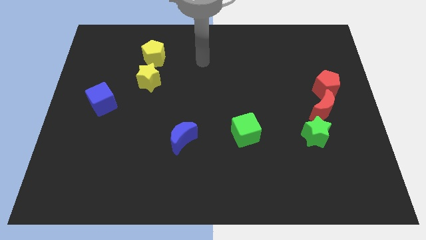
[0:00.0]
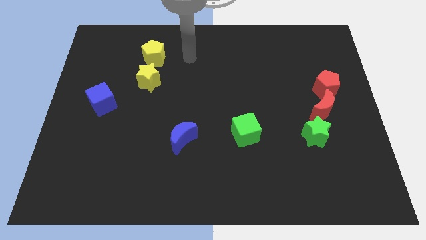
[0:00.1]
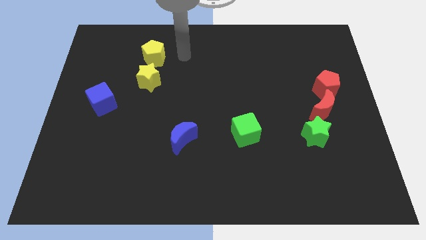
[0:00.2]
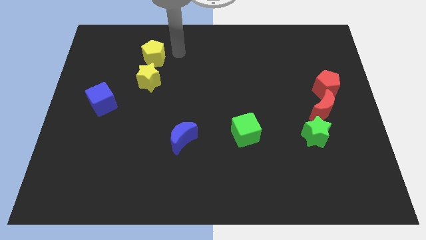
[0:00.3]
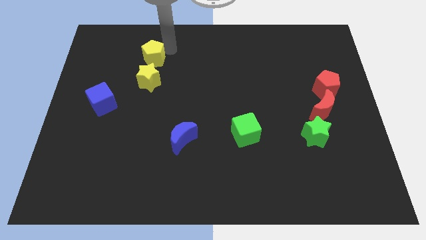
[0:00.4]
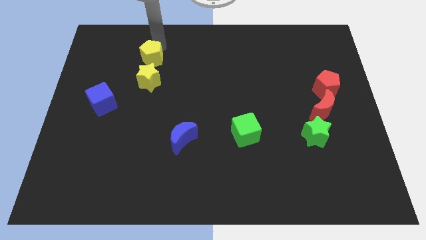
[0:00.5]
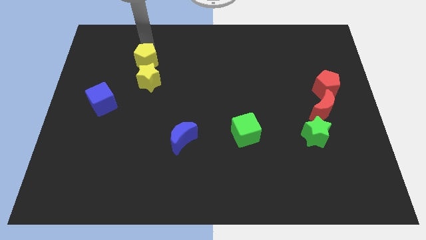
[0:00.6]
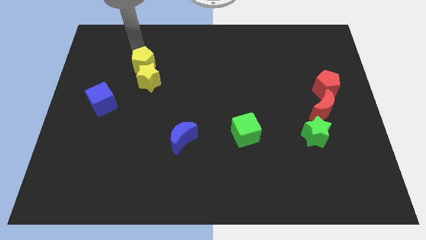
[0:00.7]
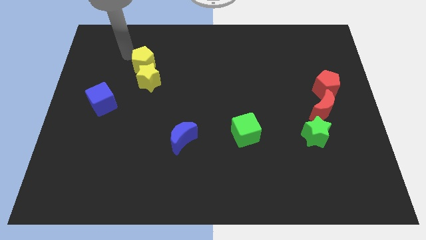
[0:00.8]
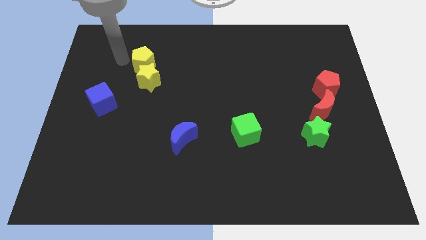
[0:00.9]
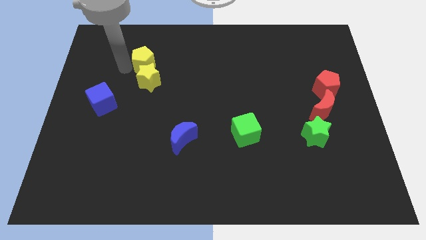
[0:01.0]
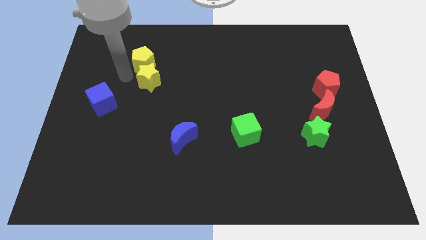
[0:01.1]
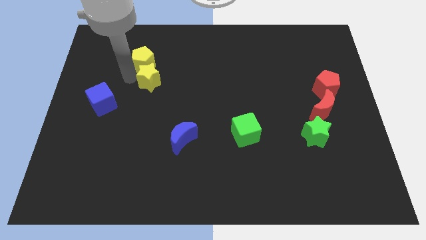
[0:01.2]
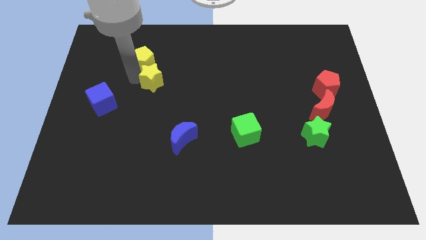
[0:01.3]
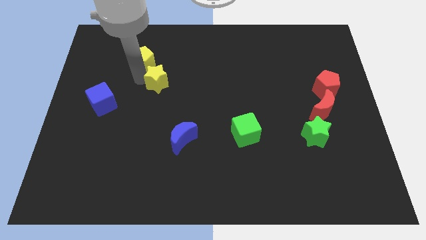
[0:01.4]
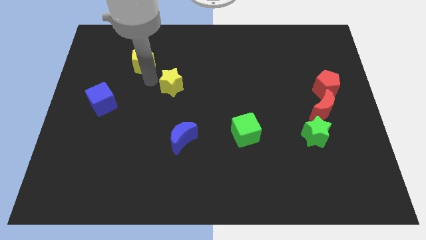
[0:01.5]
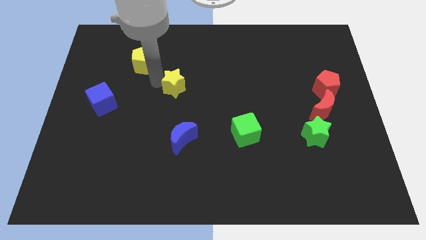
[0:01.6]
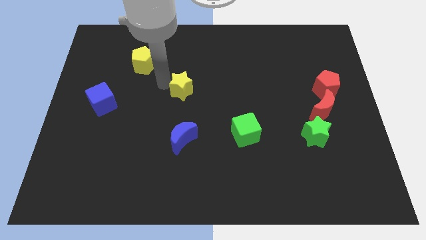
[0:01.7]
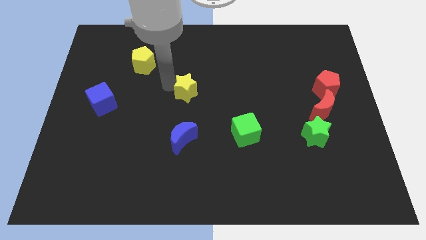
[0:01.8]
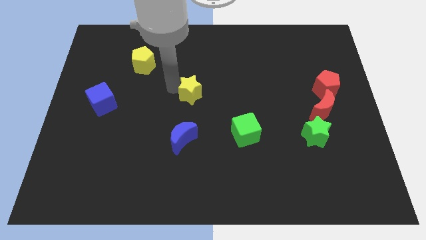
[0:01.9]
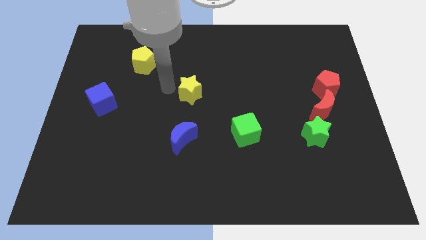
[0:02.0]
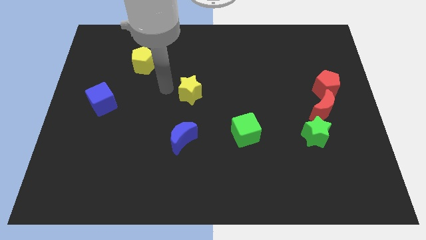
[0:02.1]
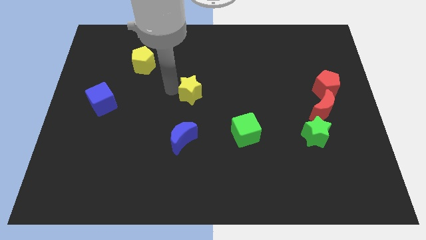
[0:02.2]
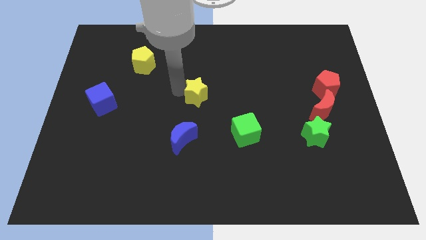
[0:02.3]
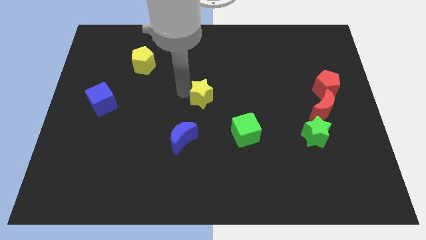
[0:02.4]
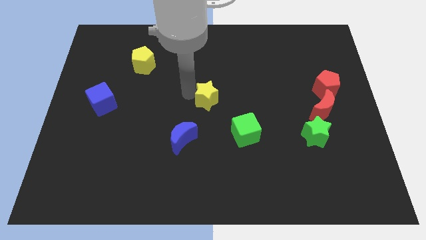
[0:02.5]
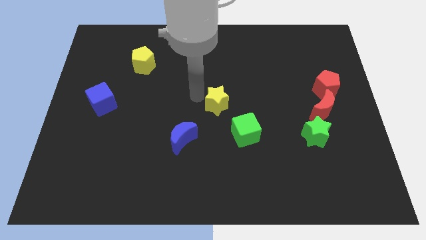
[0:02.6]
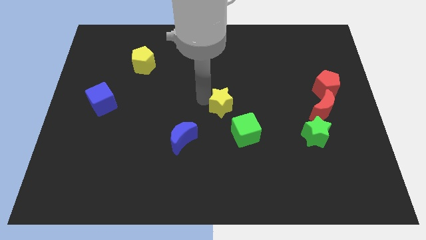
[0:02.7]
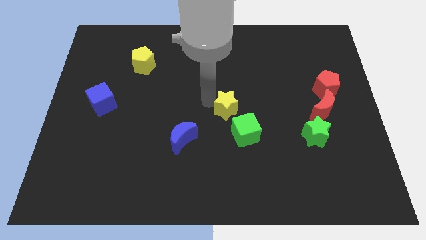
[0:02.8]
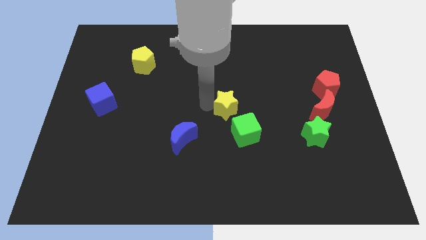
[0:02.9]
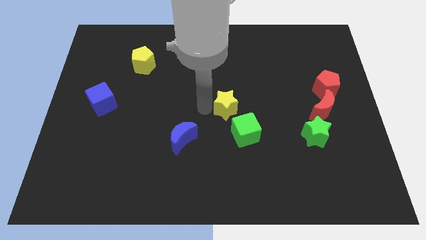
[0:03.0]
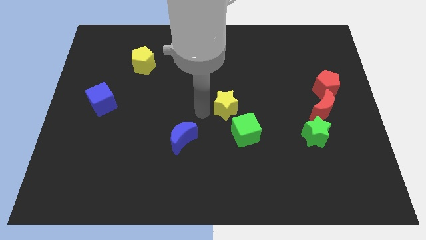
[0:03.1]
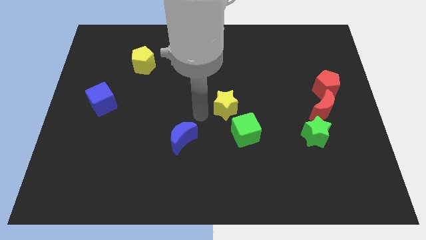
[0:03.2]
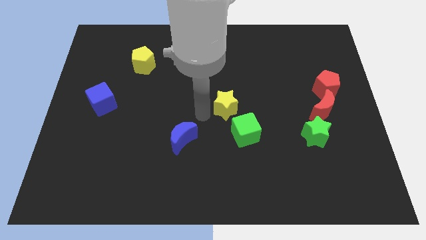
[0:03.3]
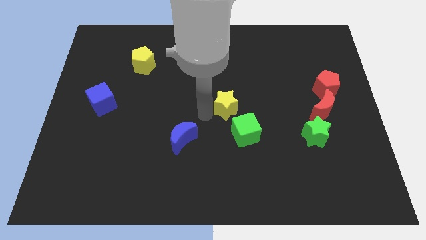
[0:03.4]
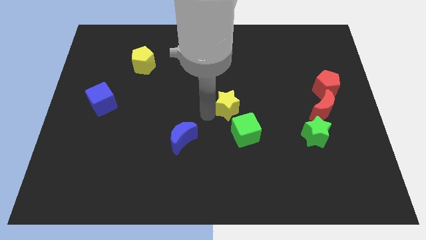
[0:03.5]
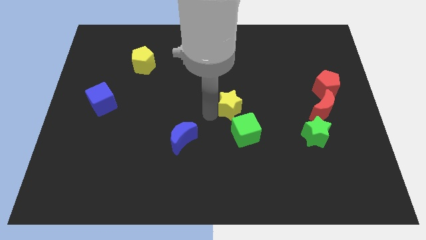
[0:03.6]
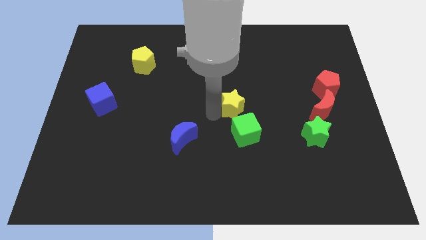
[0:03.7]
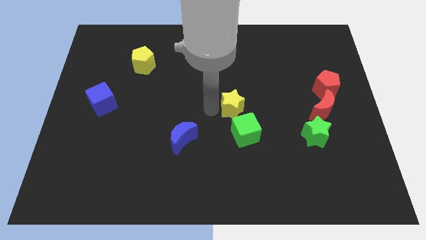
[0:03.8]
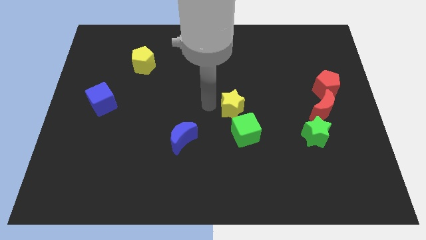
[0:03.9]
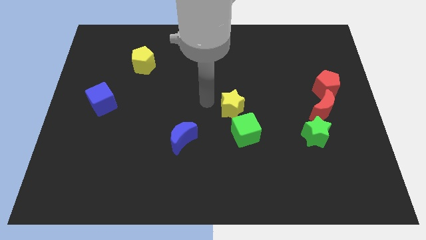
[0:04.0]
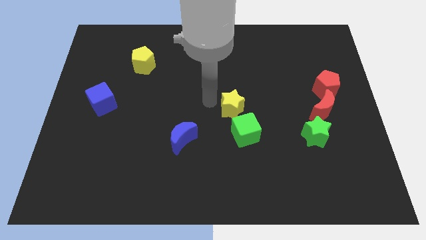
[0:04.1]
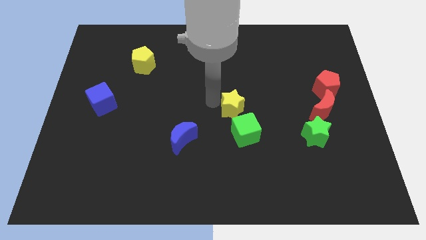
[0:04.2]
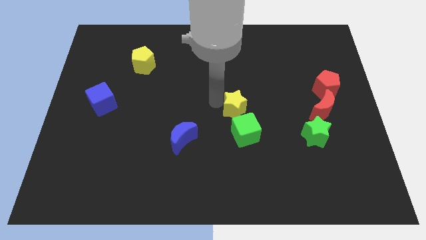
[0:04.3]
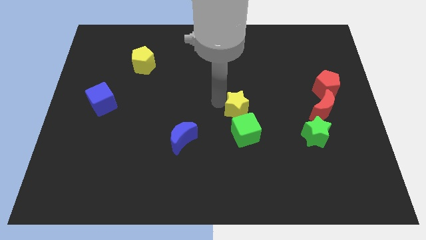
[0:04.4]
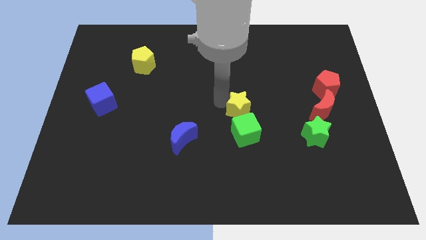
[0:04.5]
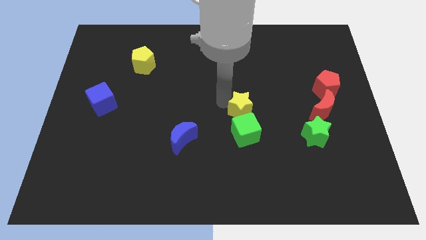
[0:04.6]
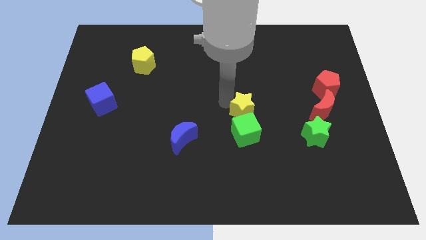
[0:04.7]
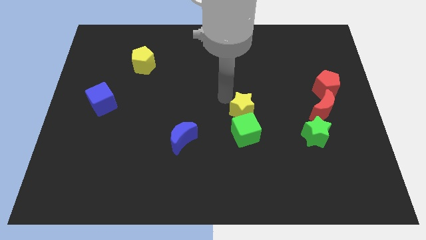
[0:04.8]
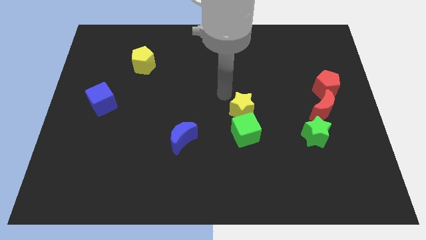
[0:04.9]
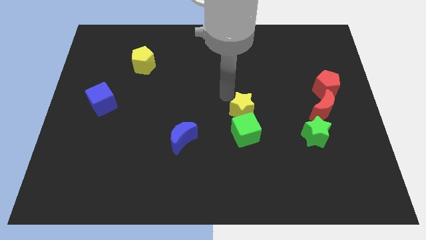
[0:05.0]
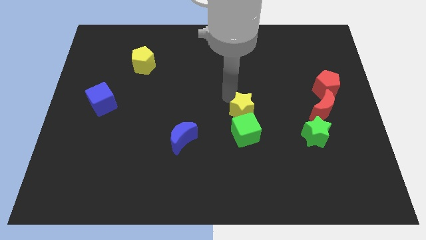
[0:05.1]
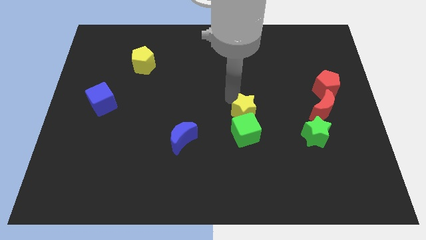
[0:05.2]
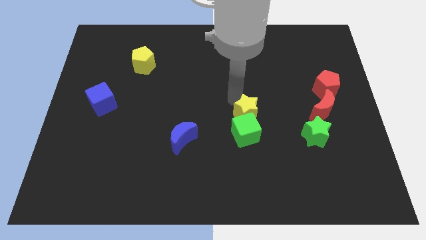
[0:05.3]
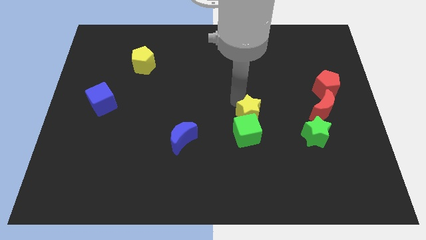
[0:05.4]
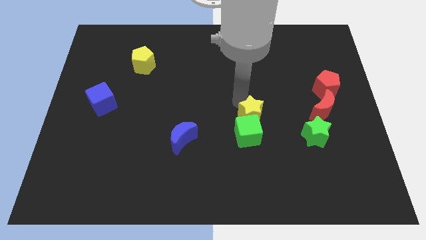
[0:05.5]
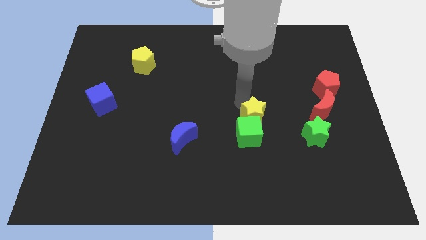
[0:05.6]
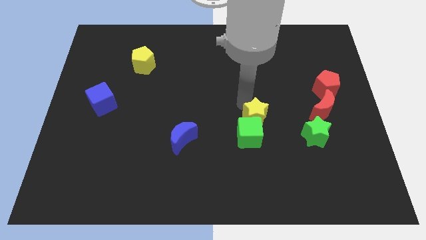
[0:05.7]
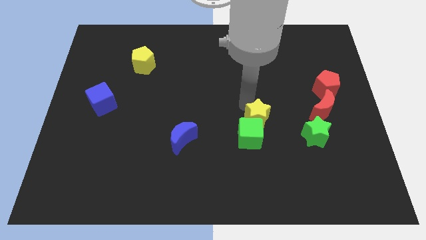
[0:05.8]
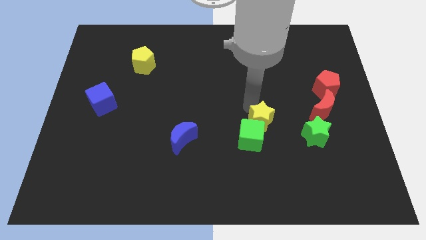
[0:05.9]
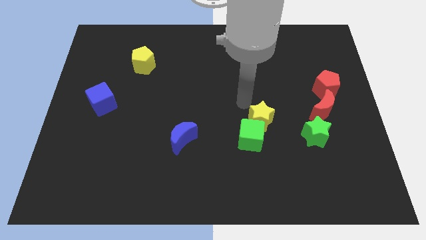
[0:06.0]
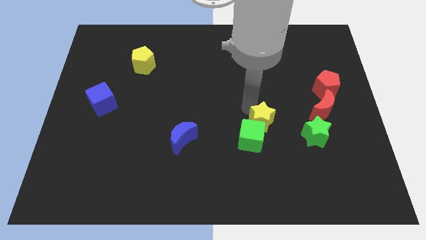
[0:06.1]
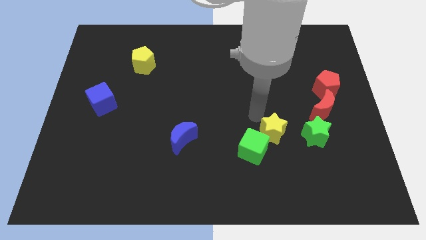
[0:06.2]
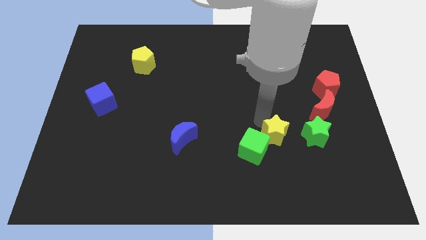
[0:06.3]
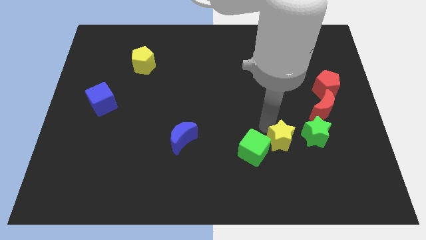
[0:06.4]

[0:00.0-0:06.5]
push the yellow star to the bottom left side of the green star

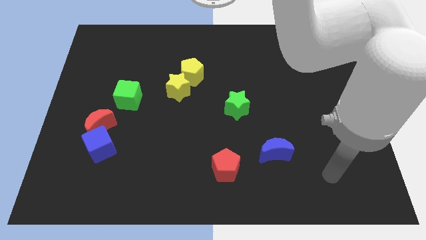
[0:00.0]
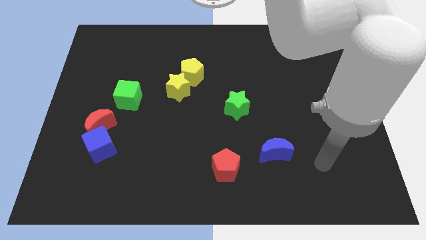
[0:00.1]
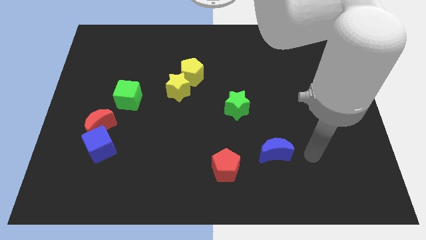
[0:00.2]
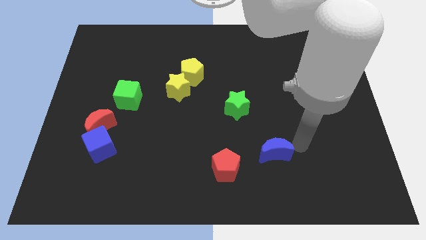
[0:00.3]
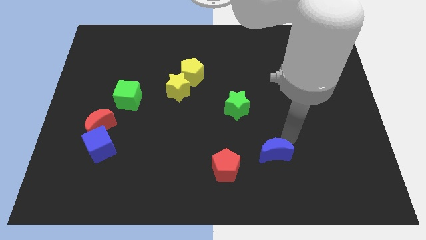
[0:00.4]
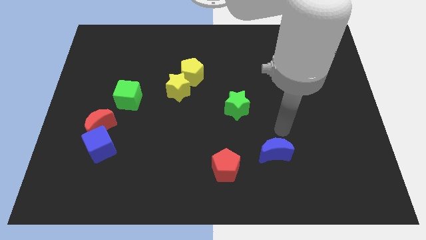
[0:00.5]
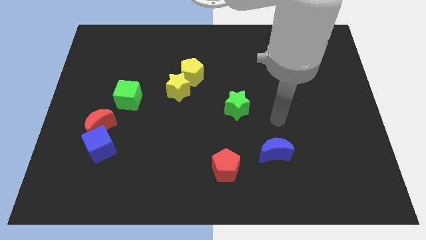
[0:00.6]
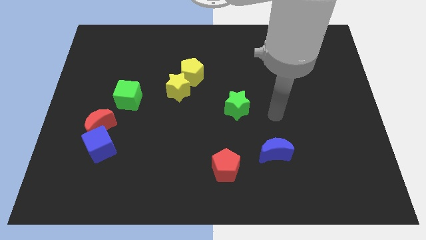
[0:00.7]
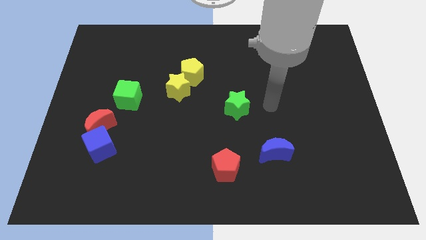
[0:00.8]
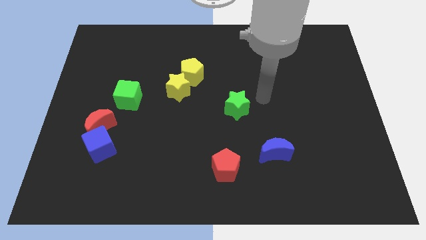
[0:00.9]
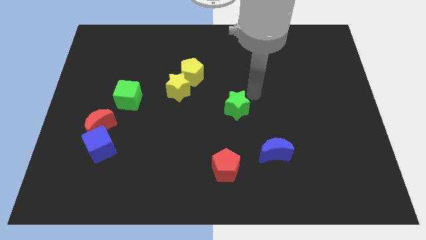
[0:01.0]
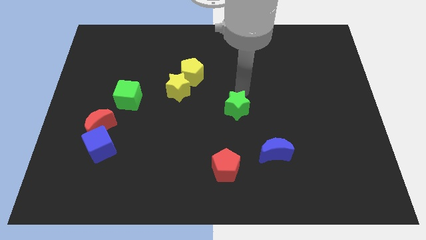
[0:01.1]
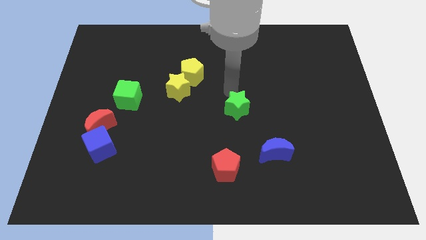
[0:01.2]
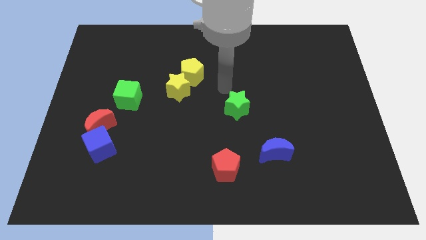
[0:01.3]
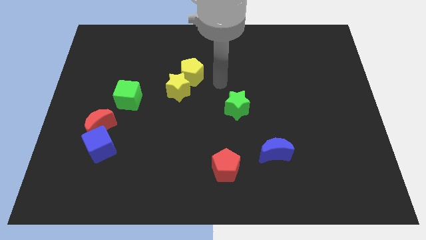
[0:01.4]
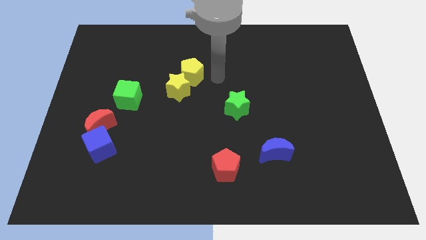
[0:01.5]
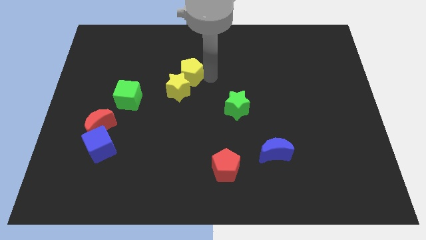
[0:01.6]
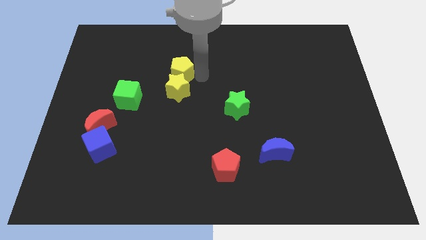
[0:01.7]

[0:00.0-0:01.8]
slide the yellow pentagon diagonally up and to the left of the yellow star
